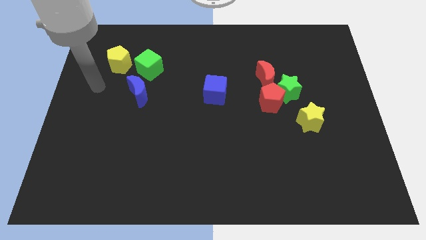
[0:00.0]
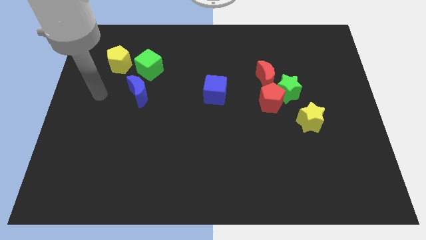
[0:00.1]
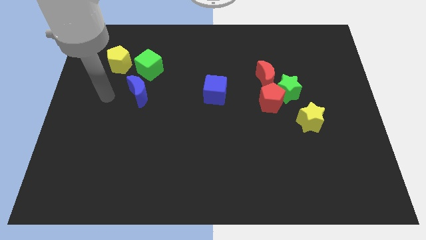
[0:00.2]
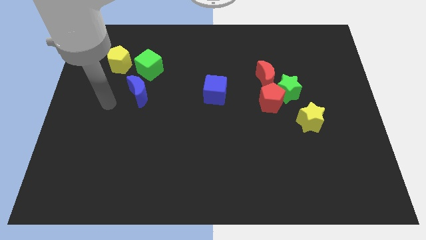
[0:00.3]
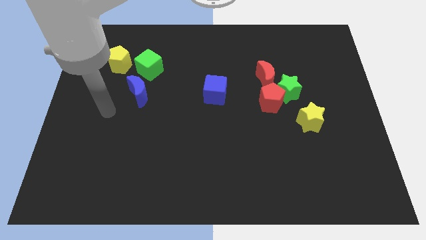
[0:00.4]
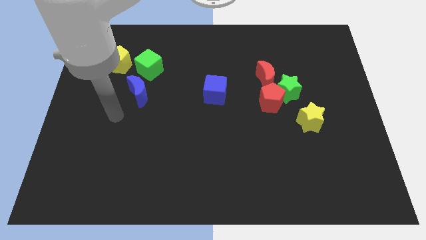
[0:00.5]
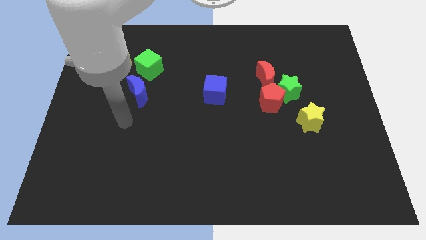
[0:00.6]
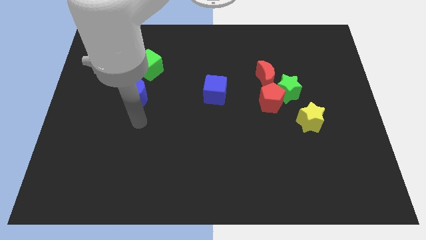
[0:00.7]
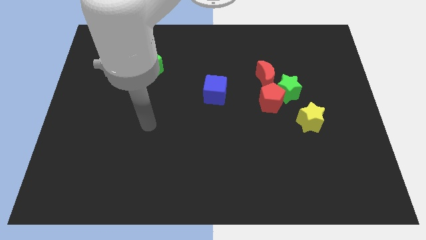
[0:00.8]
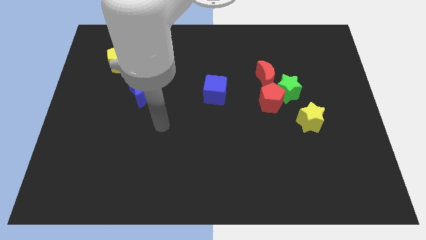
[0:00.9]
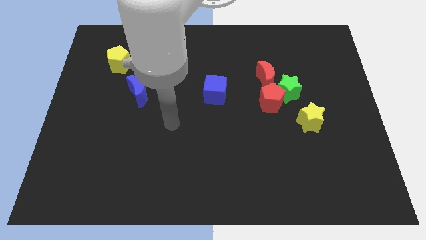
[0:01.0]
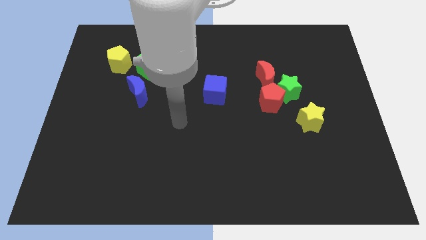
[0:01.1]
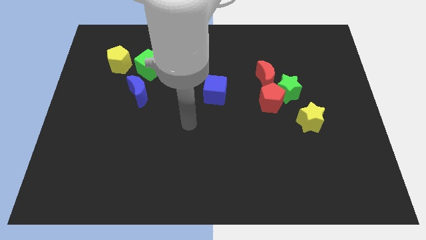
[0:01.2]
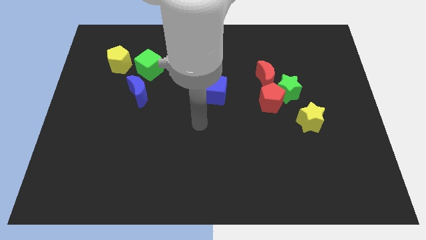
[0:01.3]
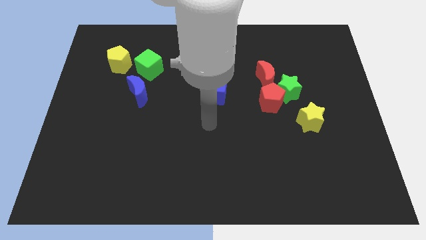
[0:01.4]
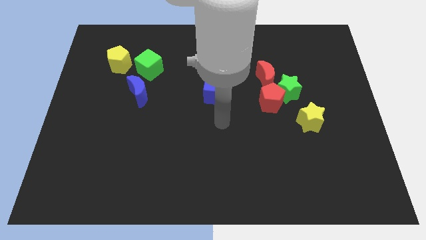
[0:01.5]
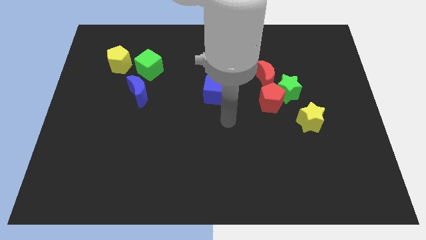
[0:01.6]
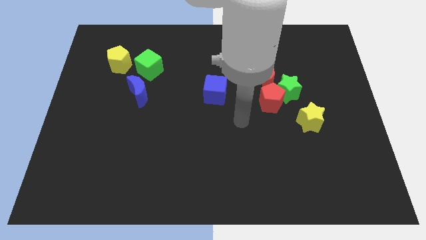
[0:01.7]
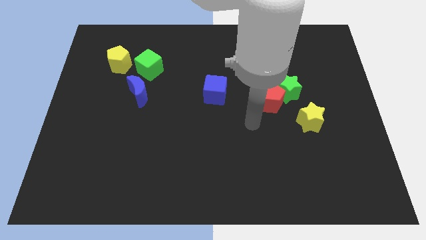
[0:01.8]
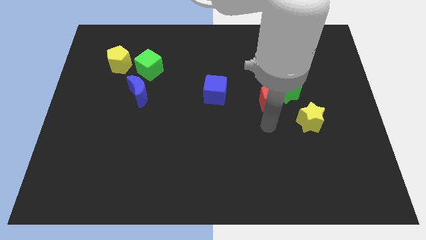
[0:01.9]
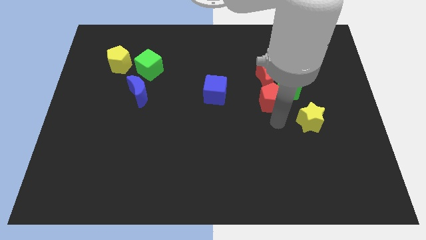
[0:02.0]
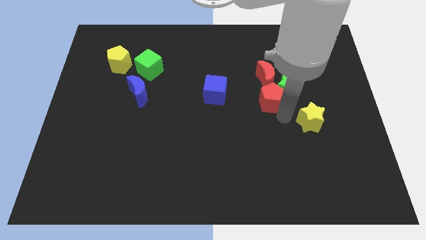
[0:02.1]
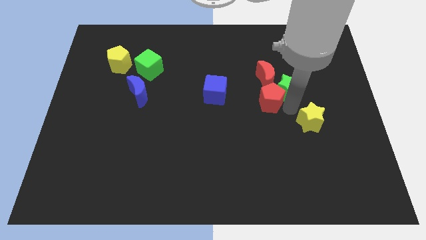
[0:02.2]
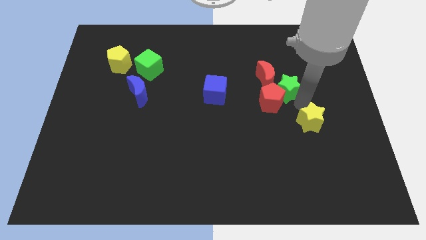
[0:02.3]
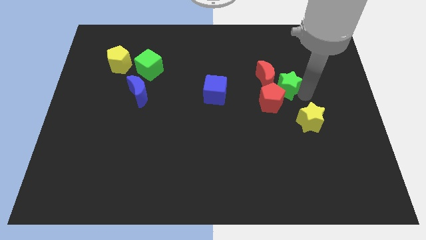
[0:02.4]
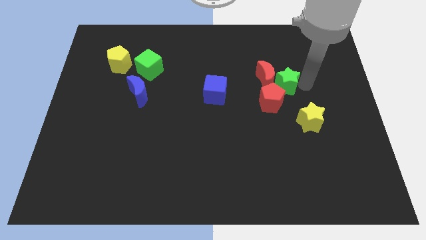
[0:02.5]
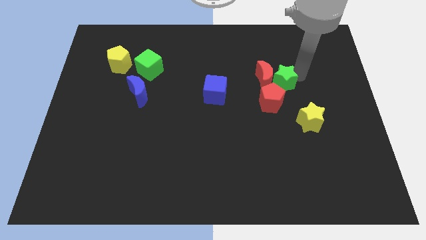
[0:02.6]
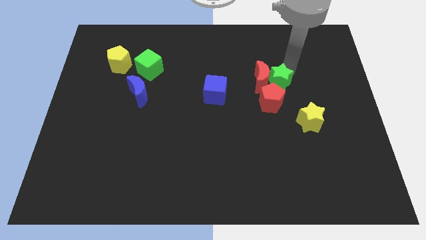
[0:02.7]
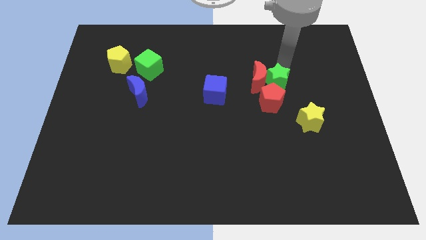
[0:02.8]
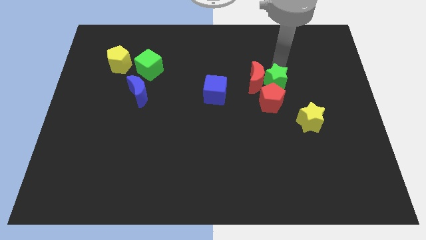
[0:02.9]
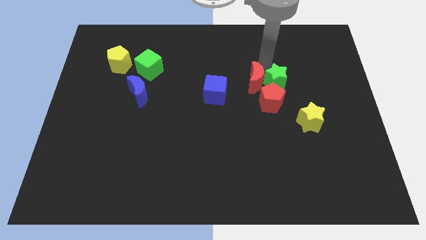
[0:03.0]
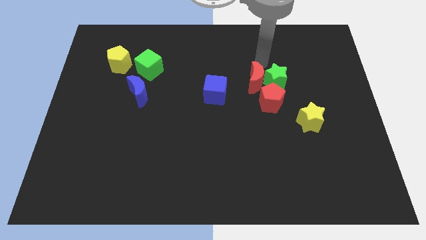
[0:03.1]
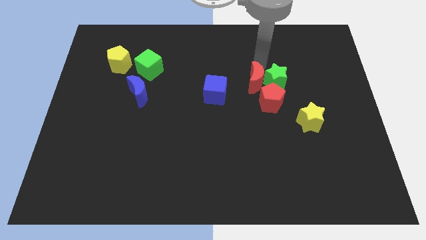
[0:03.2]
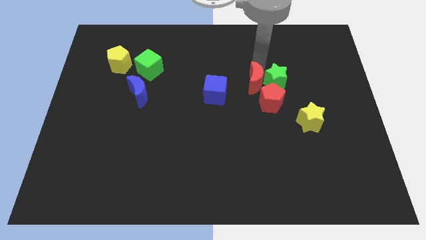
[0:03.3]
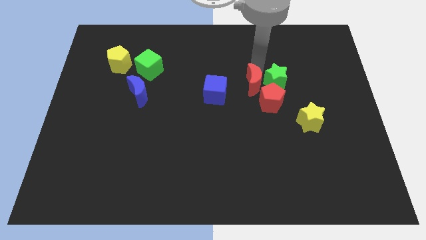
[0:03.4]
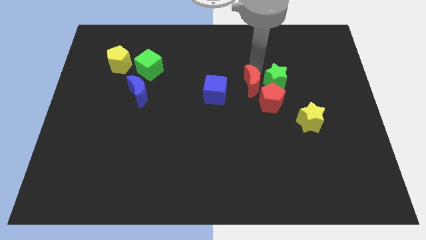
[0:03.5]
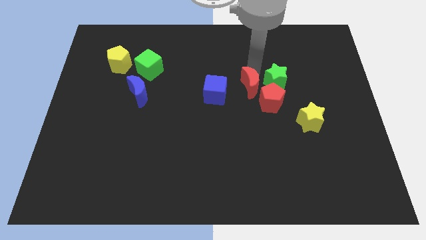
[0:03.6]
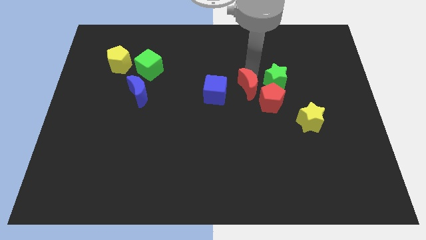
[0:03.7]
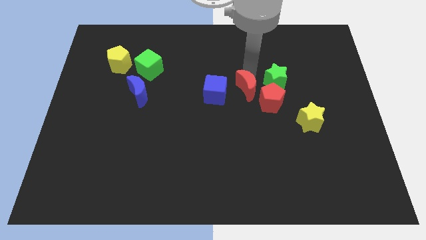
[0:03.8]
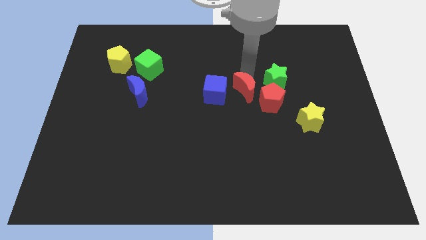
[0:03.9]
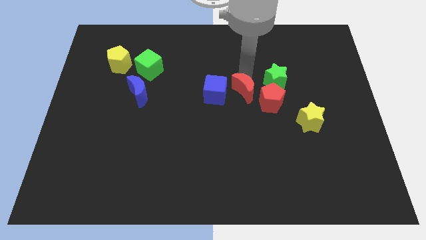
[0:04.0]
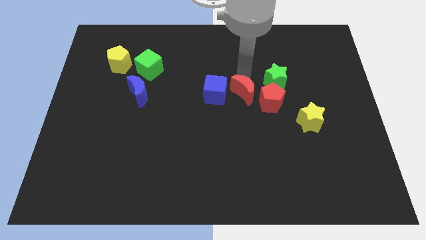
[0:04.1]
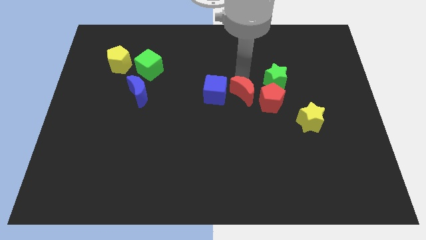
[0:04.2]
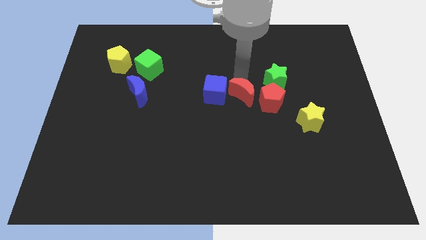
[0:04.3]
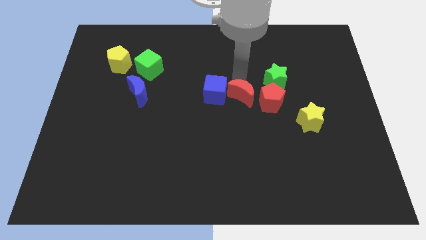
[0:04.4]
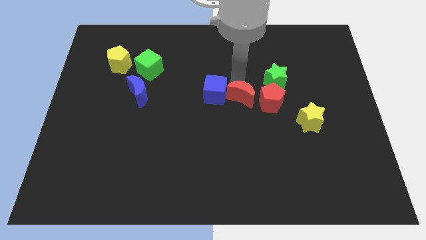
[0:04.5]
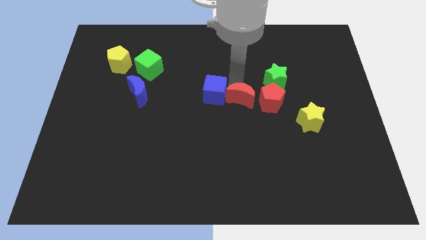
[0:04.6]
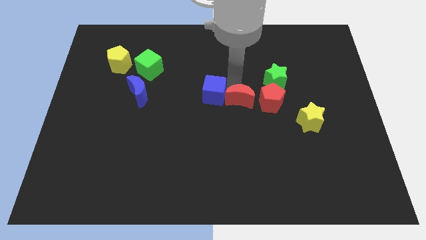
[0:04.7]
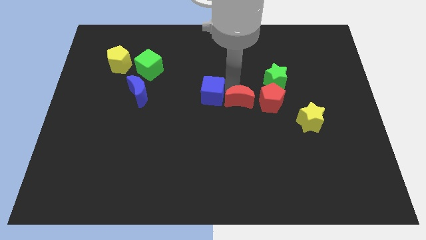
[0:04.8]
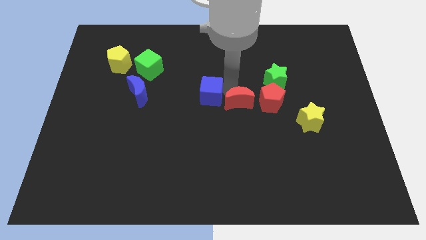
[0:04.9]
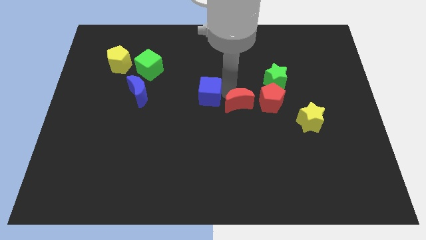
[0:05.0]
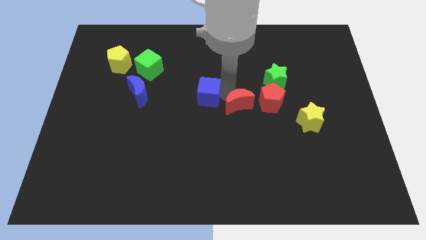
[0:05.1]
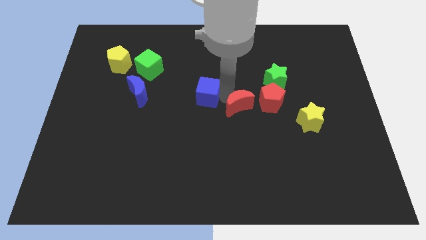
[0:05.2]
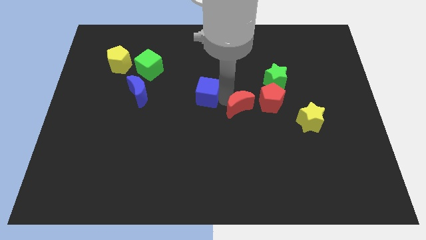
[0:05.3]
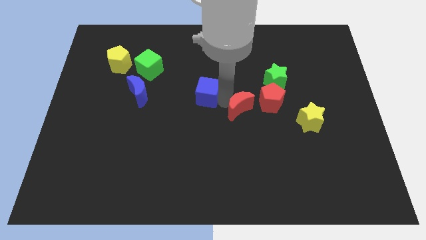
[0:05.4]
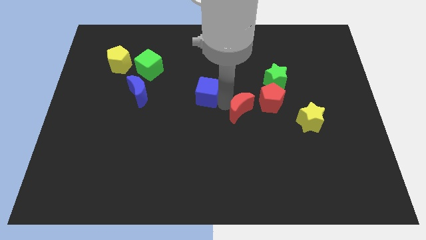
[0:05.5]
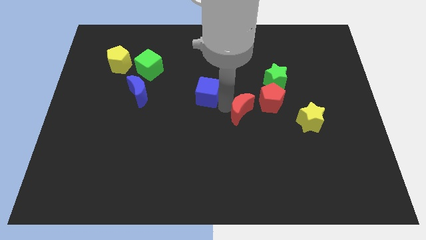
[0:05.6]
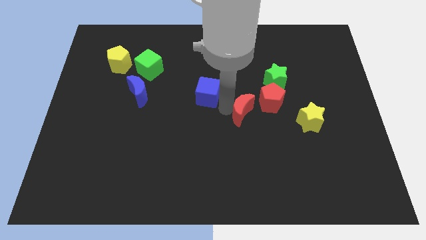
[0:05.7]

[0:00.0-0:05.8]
push the red moon to the left side of the yellow star

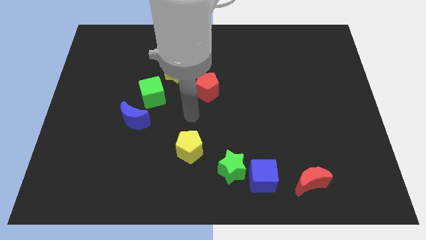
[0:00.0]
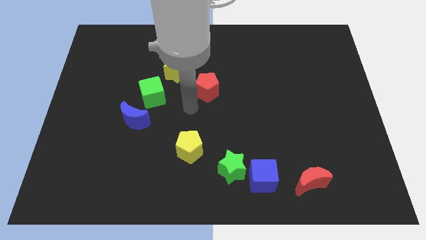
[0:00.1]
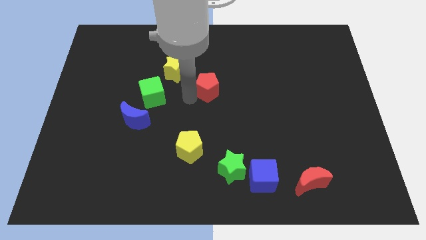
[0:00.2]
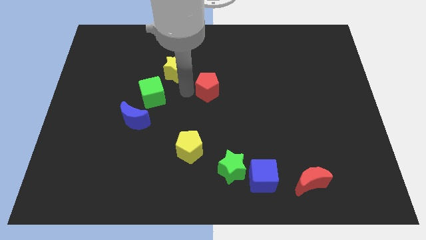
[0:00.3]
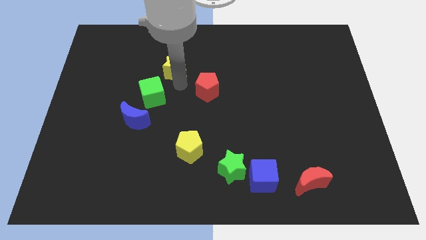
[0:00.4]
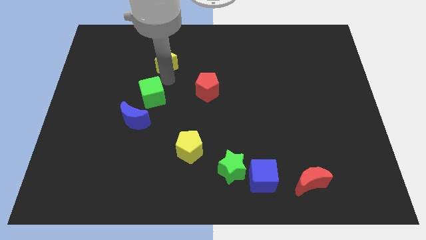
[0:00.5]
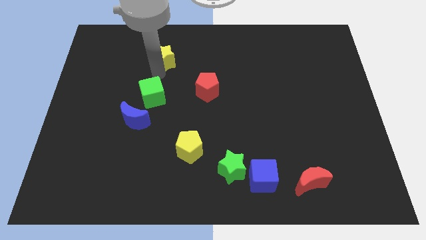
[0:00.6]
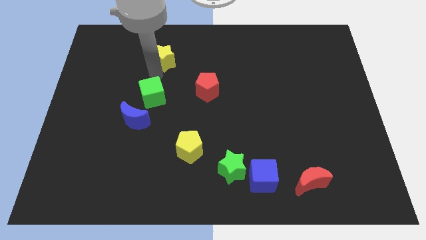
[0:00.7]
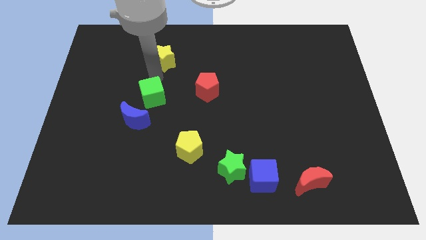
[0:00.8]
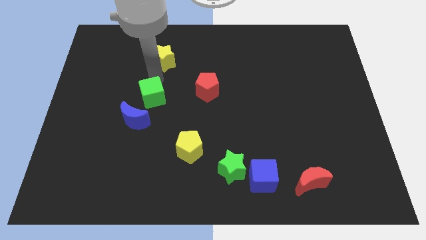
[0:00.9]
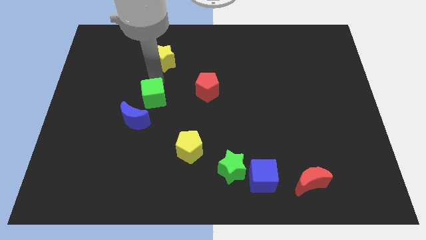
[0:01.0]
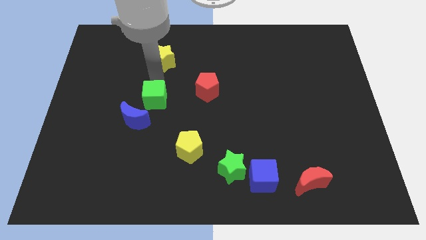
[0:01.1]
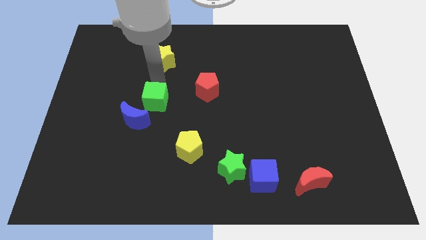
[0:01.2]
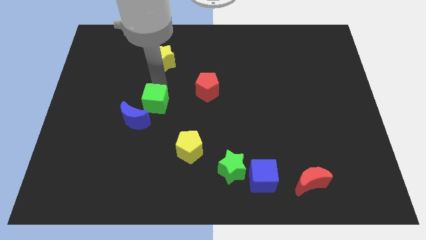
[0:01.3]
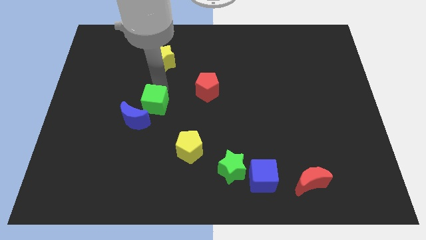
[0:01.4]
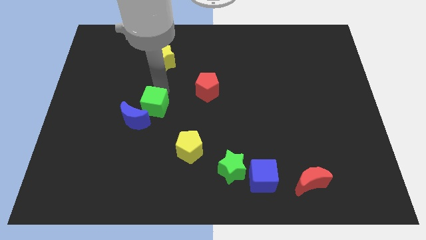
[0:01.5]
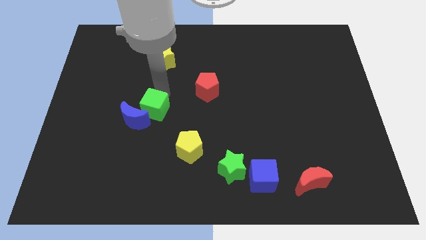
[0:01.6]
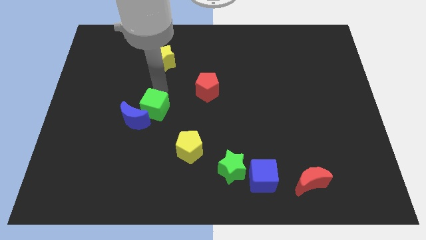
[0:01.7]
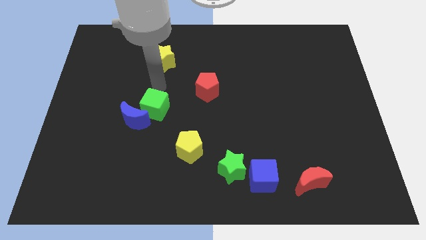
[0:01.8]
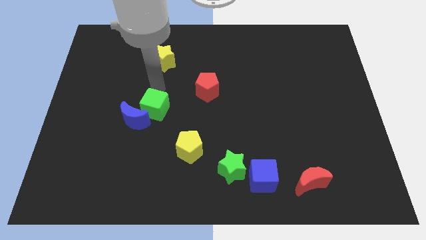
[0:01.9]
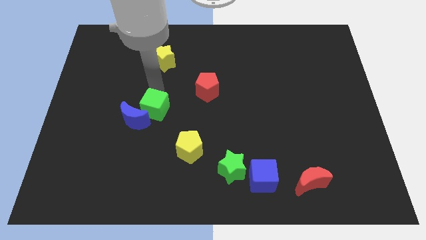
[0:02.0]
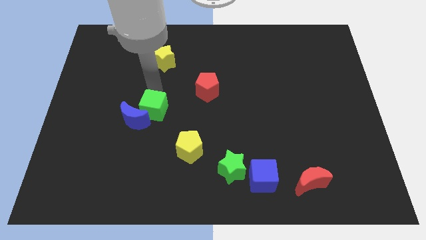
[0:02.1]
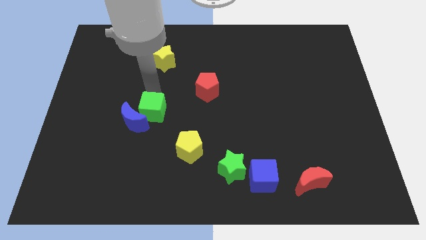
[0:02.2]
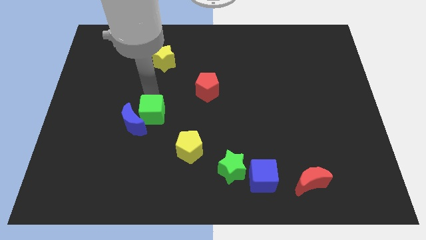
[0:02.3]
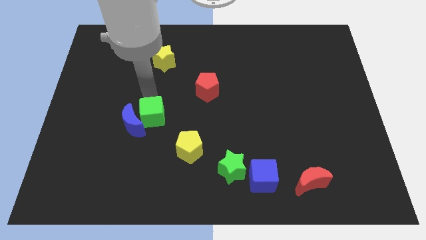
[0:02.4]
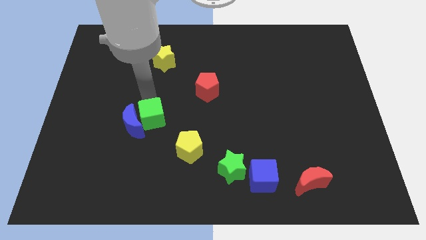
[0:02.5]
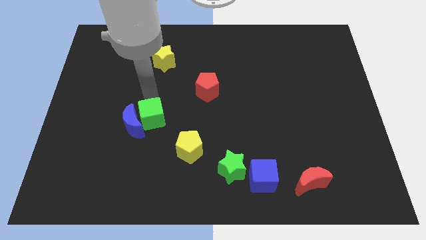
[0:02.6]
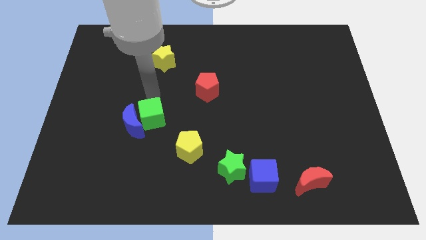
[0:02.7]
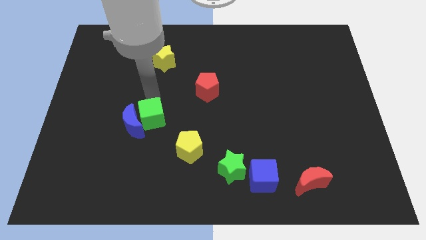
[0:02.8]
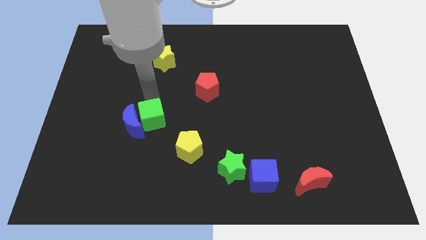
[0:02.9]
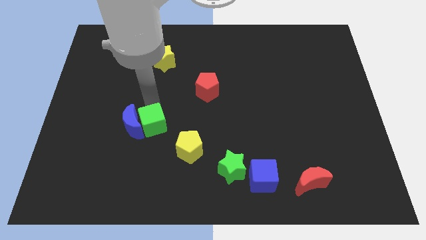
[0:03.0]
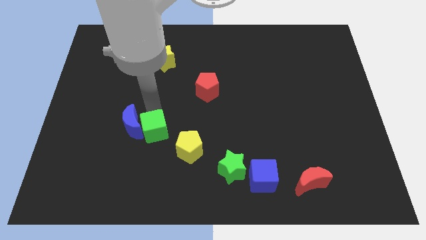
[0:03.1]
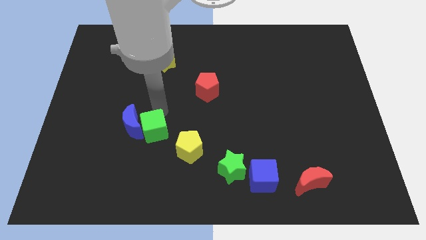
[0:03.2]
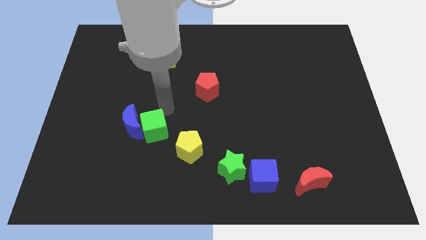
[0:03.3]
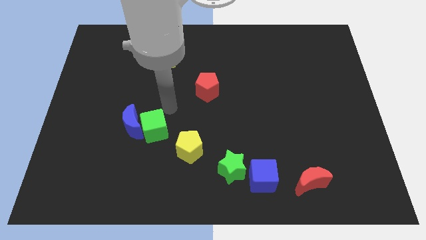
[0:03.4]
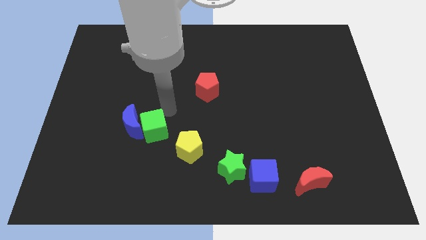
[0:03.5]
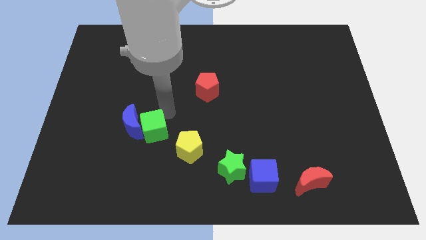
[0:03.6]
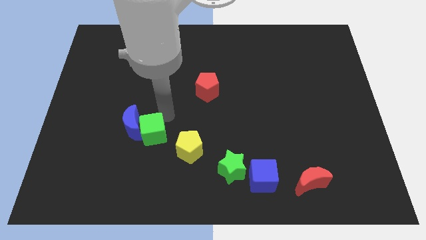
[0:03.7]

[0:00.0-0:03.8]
put the green cube left of the yellow pentagon
